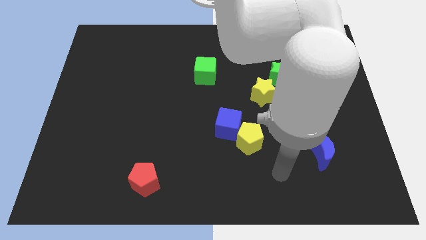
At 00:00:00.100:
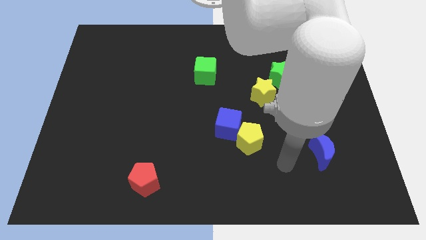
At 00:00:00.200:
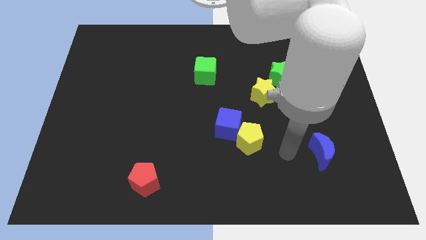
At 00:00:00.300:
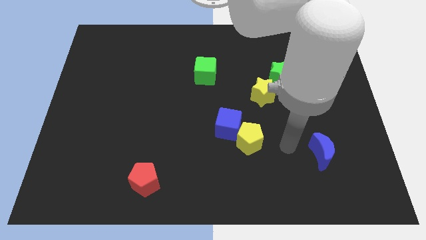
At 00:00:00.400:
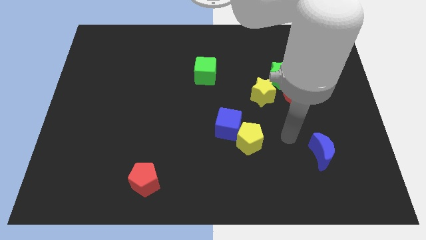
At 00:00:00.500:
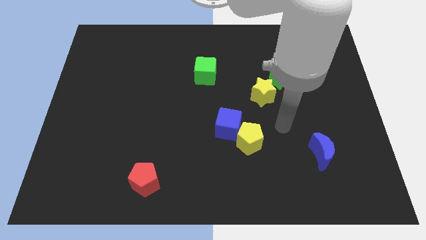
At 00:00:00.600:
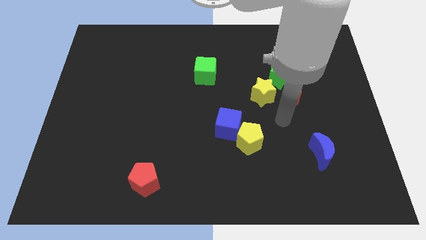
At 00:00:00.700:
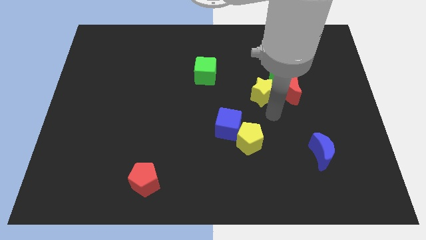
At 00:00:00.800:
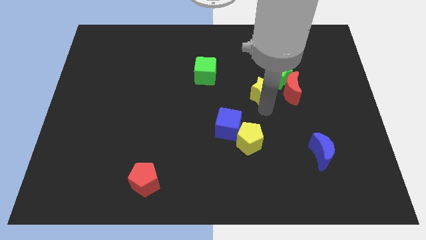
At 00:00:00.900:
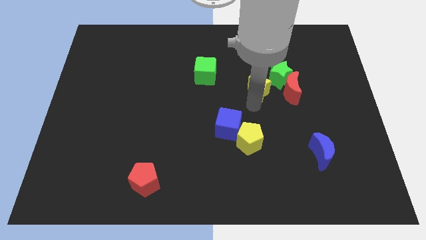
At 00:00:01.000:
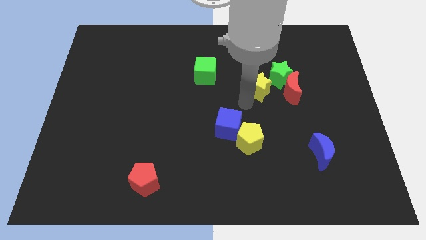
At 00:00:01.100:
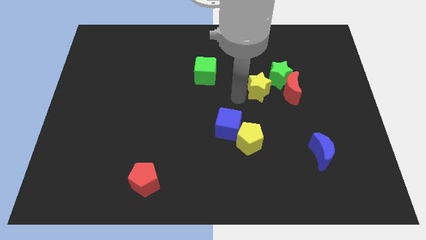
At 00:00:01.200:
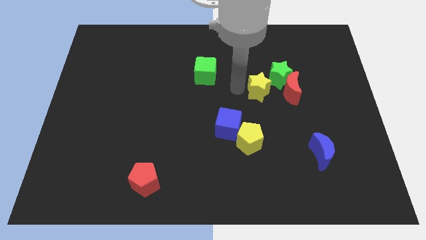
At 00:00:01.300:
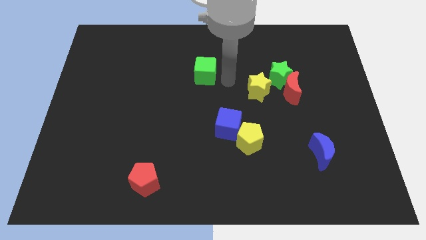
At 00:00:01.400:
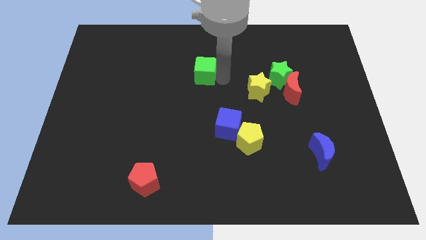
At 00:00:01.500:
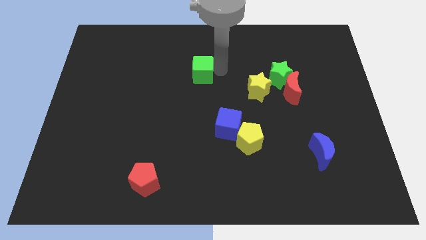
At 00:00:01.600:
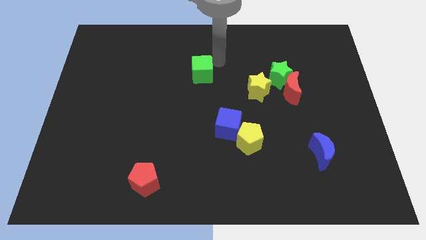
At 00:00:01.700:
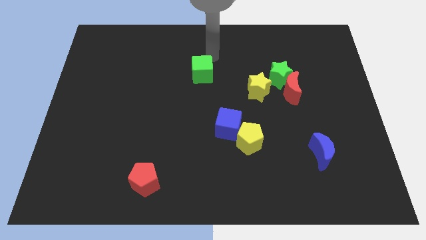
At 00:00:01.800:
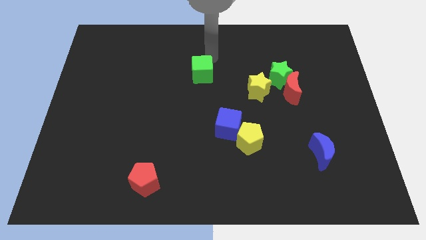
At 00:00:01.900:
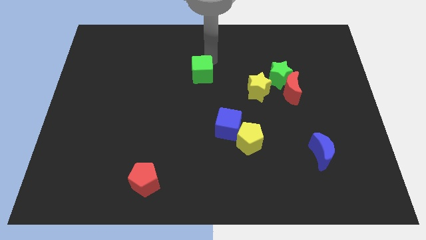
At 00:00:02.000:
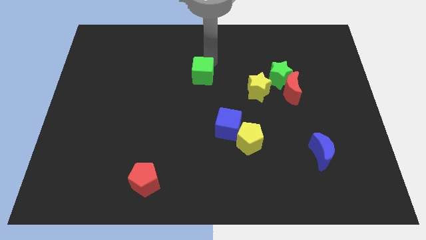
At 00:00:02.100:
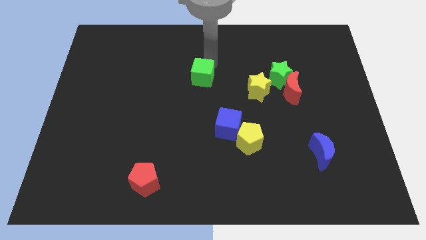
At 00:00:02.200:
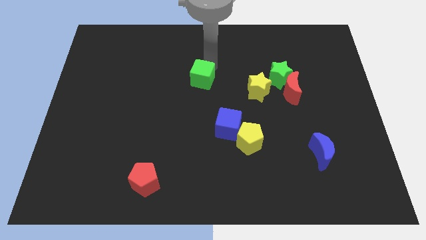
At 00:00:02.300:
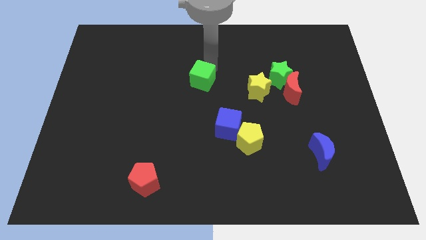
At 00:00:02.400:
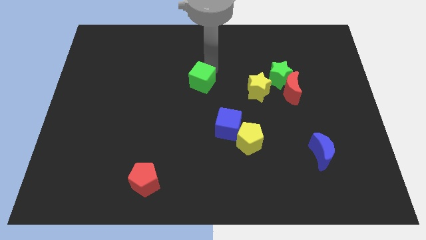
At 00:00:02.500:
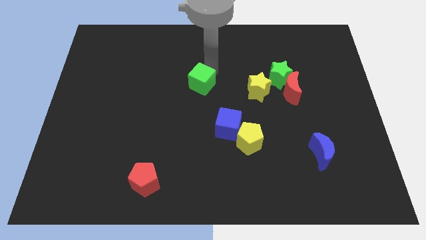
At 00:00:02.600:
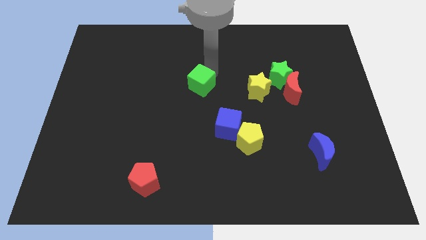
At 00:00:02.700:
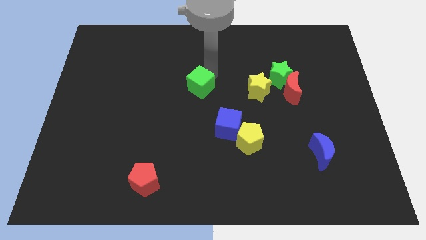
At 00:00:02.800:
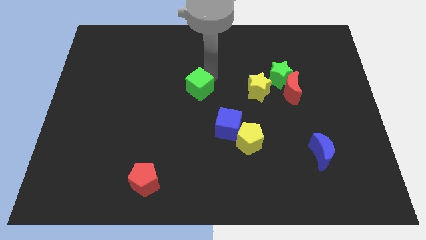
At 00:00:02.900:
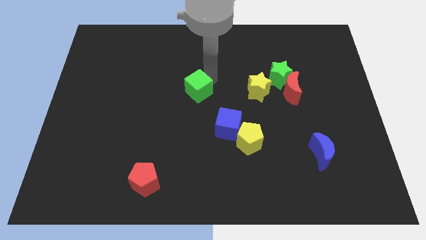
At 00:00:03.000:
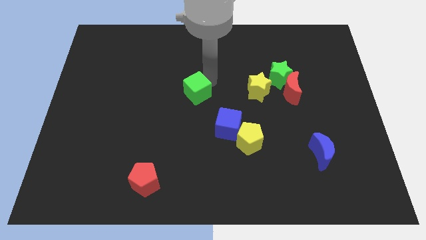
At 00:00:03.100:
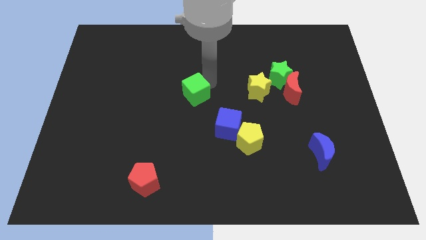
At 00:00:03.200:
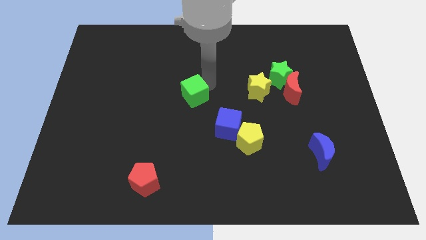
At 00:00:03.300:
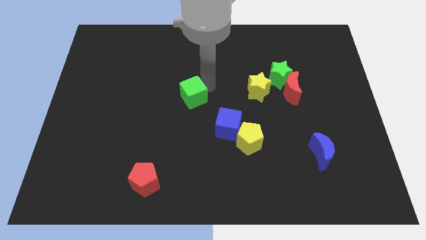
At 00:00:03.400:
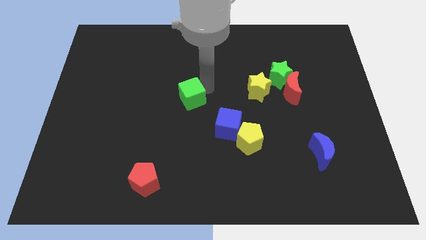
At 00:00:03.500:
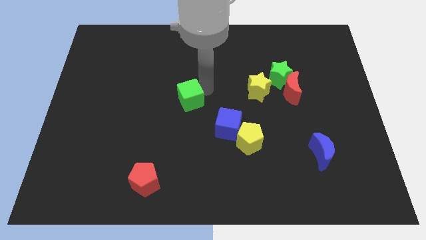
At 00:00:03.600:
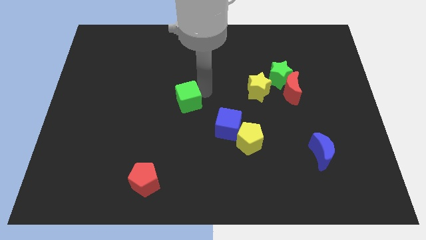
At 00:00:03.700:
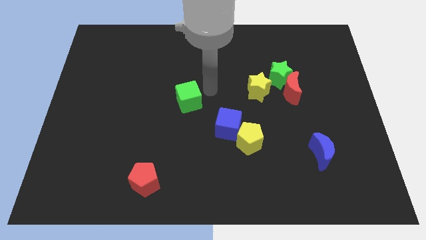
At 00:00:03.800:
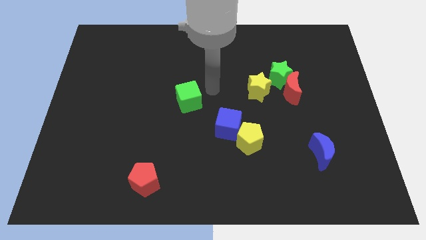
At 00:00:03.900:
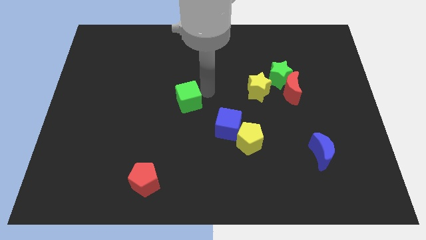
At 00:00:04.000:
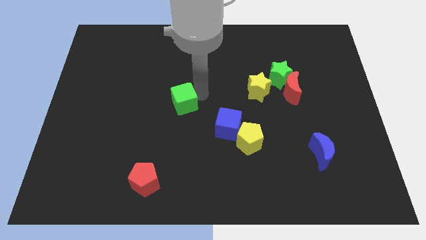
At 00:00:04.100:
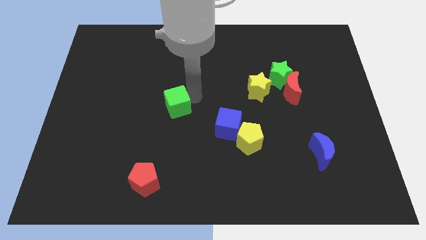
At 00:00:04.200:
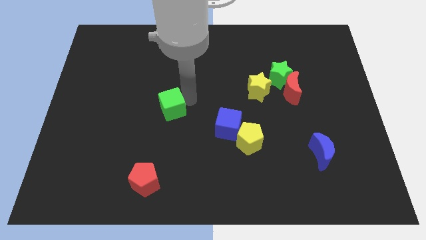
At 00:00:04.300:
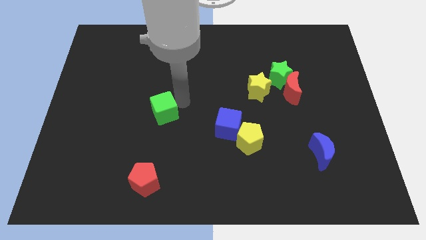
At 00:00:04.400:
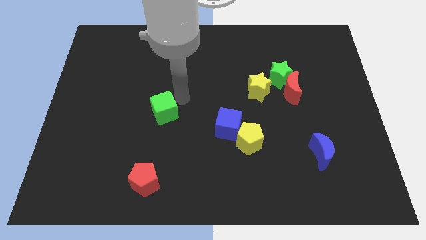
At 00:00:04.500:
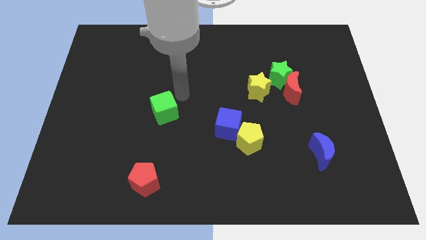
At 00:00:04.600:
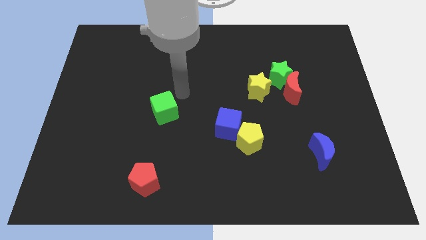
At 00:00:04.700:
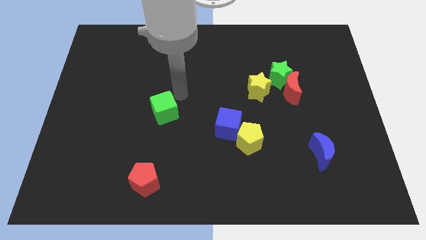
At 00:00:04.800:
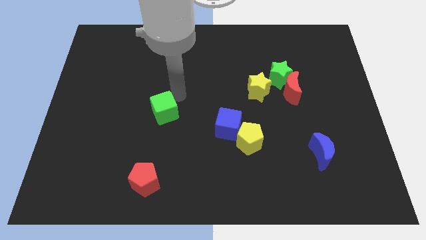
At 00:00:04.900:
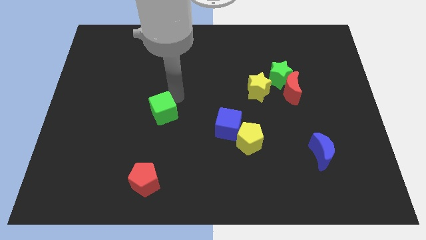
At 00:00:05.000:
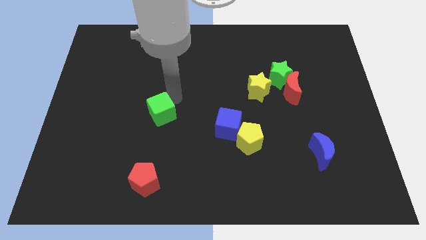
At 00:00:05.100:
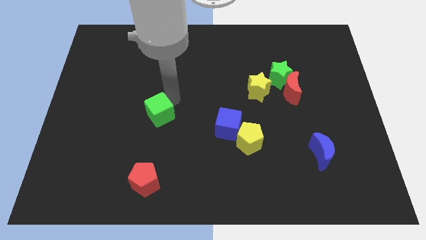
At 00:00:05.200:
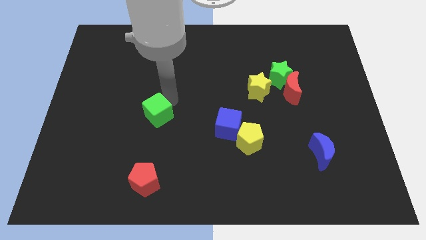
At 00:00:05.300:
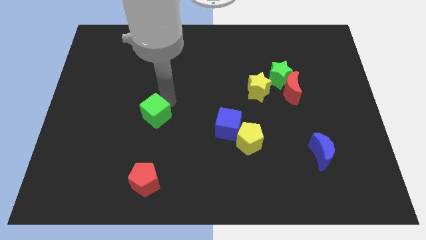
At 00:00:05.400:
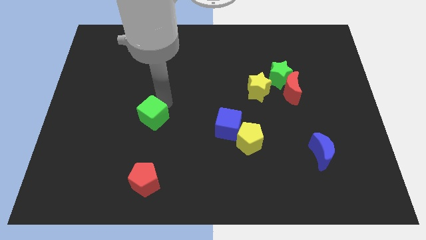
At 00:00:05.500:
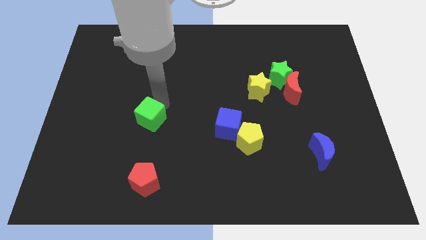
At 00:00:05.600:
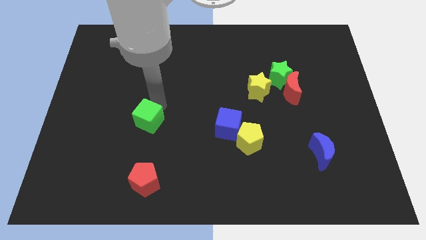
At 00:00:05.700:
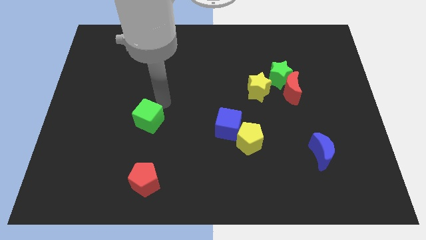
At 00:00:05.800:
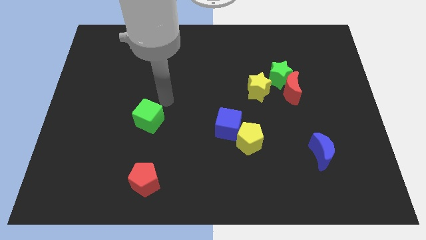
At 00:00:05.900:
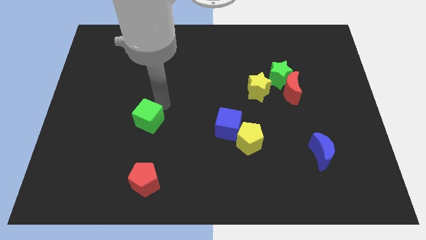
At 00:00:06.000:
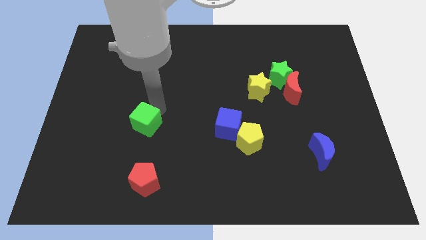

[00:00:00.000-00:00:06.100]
move the green cube down and then left

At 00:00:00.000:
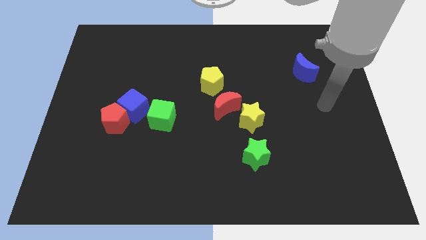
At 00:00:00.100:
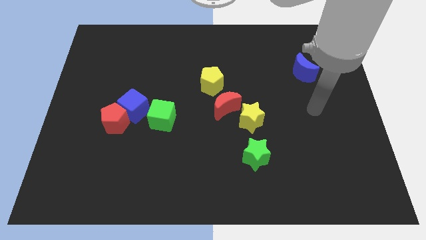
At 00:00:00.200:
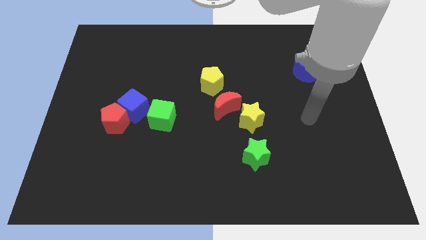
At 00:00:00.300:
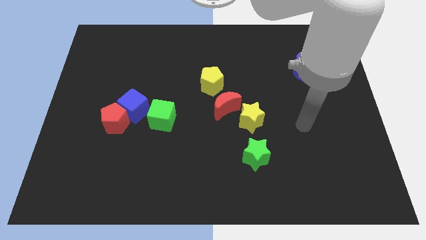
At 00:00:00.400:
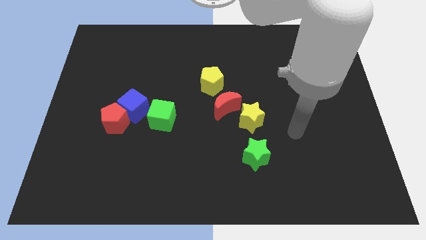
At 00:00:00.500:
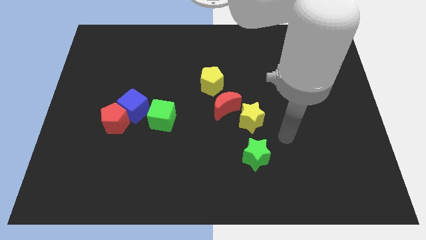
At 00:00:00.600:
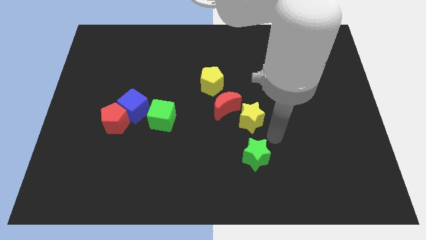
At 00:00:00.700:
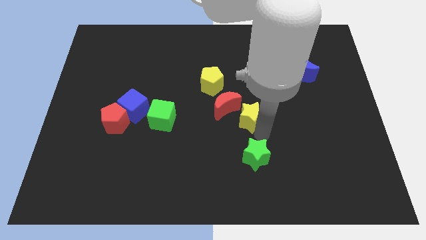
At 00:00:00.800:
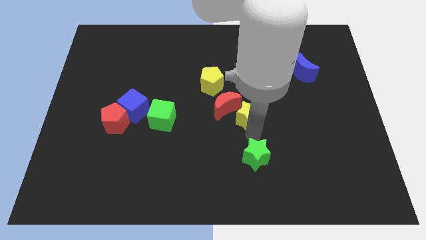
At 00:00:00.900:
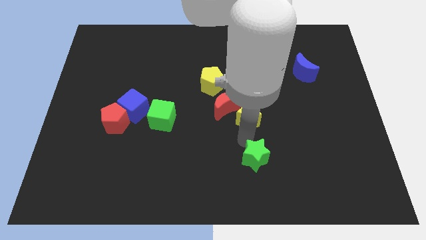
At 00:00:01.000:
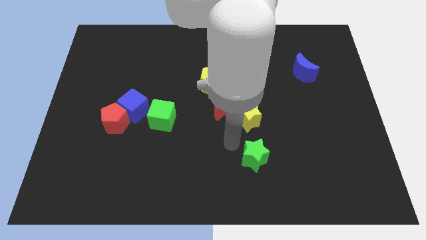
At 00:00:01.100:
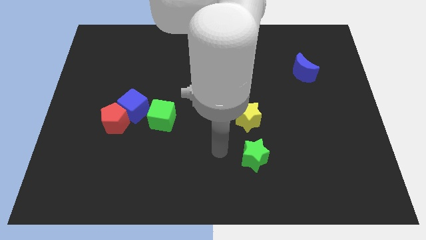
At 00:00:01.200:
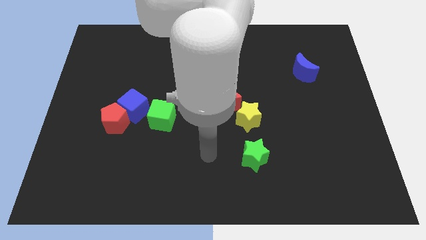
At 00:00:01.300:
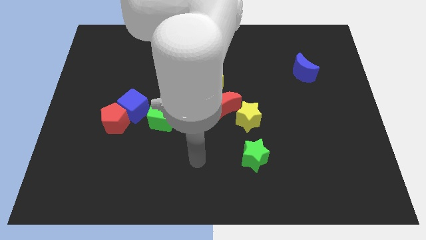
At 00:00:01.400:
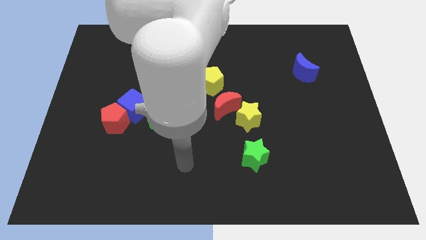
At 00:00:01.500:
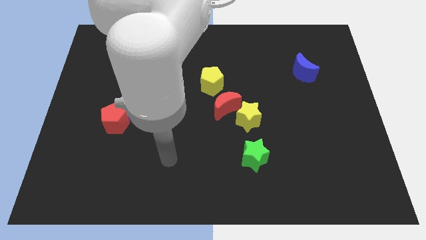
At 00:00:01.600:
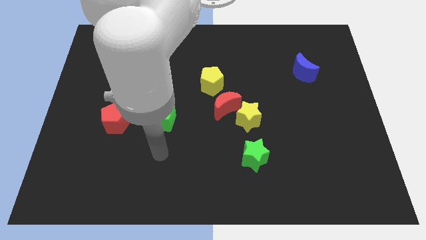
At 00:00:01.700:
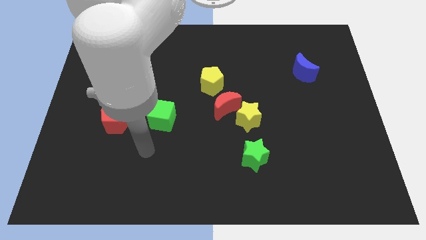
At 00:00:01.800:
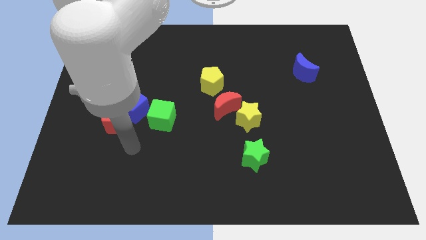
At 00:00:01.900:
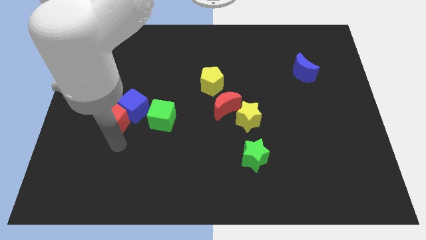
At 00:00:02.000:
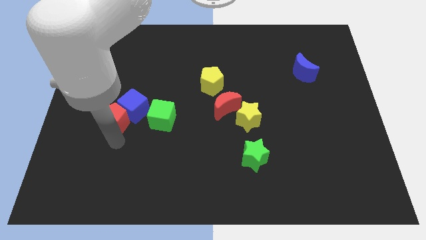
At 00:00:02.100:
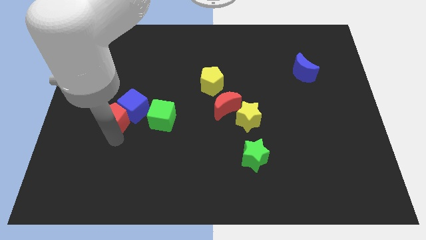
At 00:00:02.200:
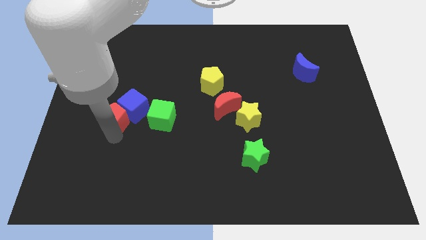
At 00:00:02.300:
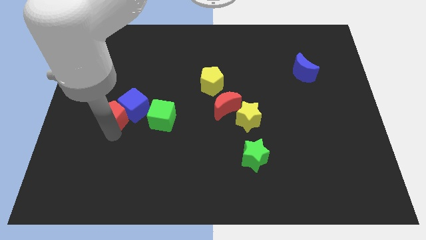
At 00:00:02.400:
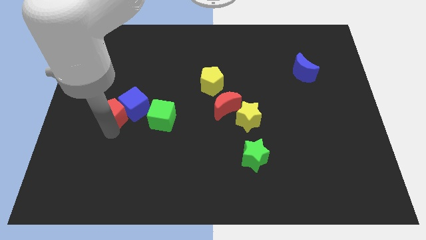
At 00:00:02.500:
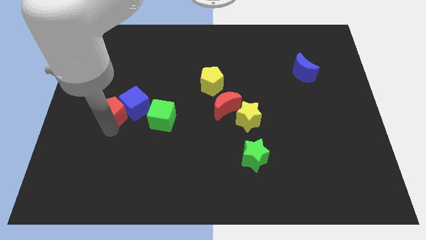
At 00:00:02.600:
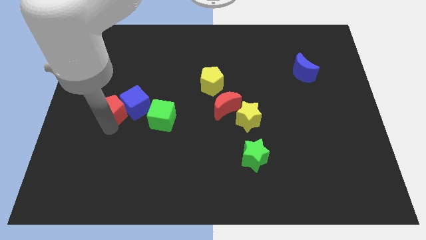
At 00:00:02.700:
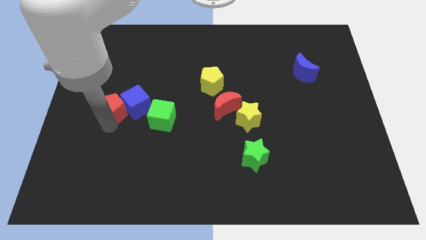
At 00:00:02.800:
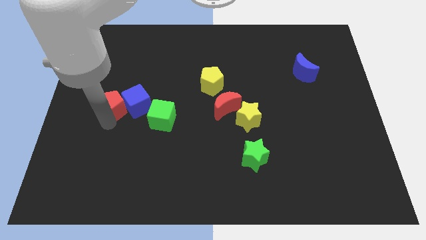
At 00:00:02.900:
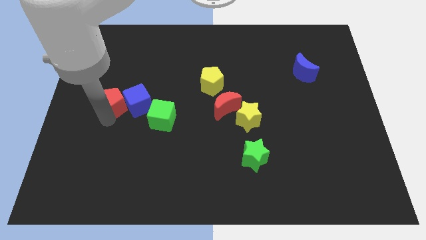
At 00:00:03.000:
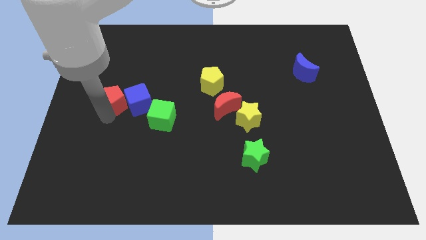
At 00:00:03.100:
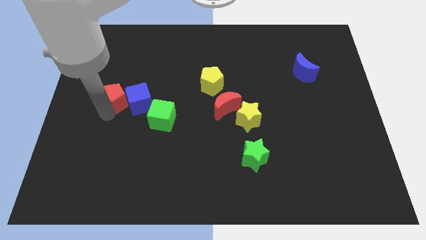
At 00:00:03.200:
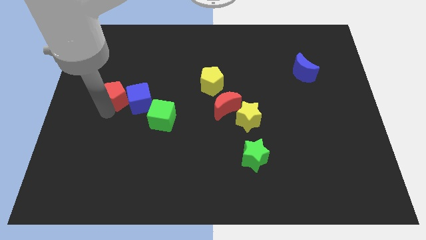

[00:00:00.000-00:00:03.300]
slightly move the red pentagon upwards
